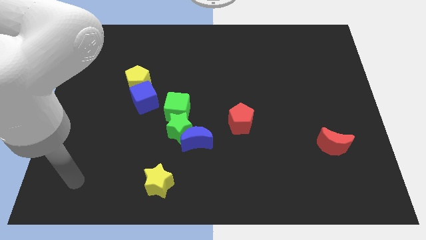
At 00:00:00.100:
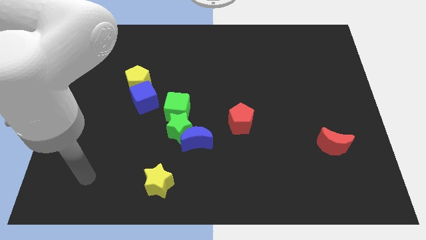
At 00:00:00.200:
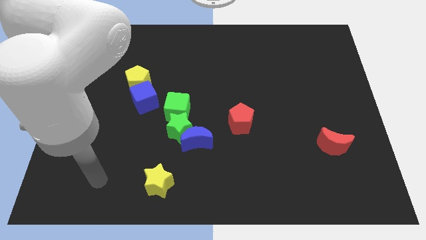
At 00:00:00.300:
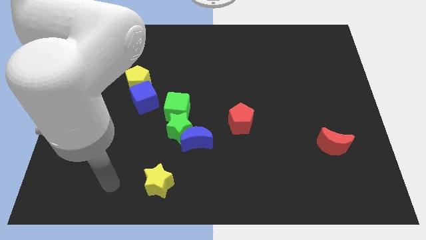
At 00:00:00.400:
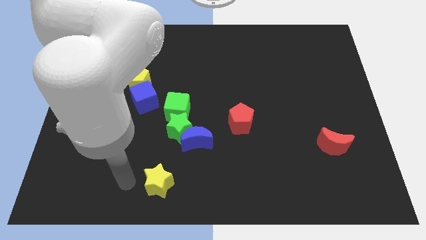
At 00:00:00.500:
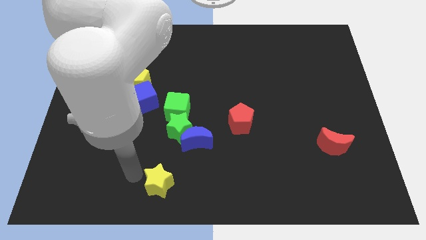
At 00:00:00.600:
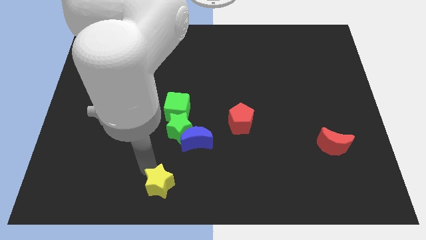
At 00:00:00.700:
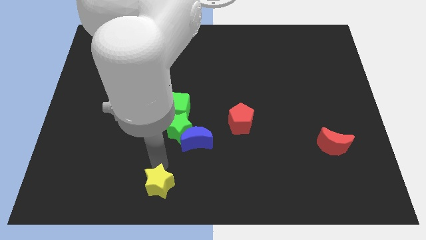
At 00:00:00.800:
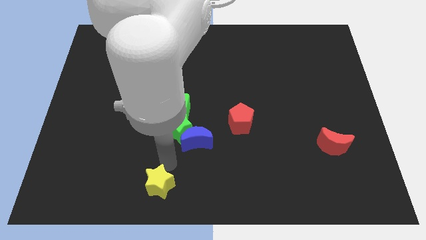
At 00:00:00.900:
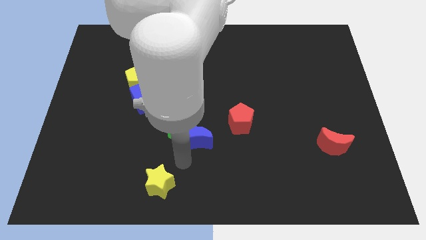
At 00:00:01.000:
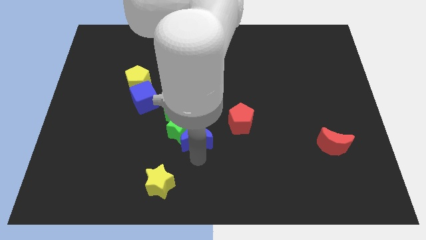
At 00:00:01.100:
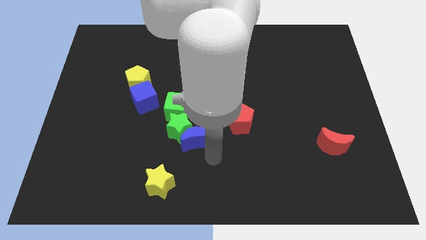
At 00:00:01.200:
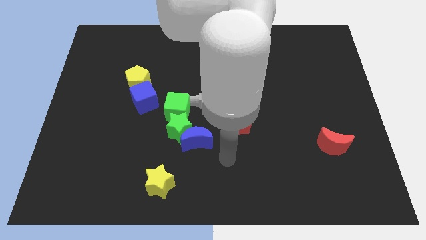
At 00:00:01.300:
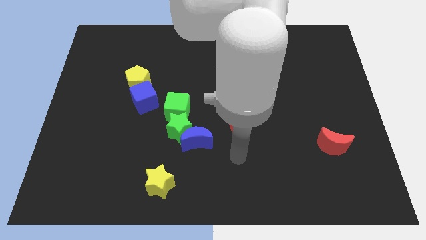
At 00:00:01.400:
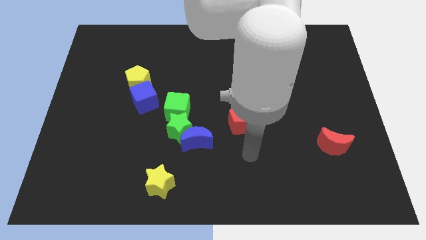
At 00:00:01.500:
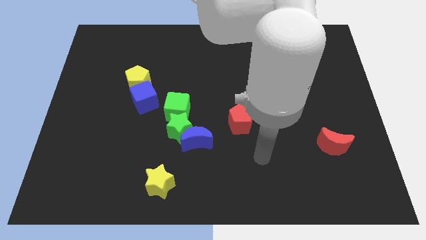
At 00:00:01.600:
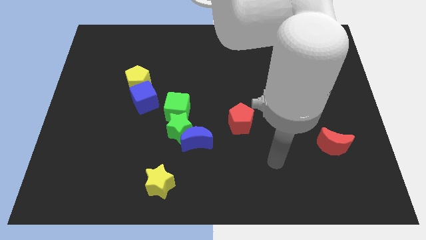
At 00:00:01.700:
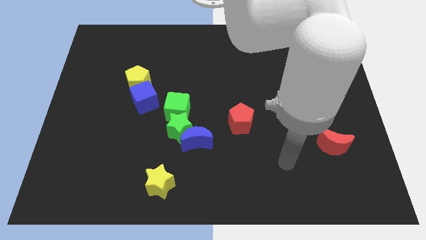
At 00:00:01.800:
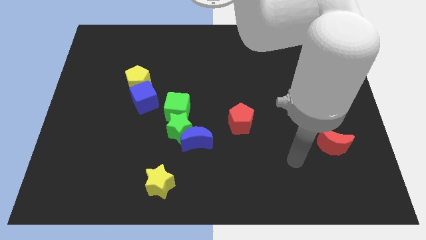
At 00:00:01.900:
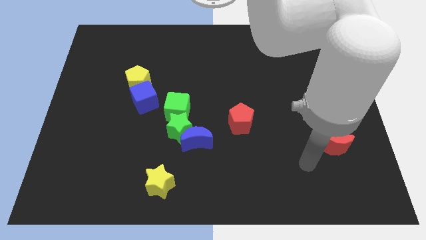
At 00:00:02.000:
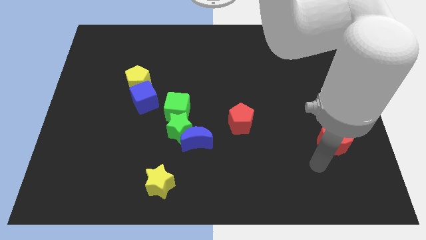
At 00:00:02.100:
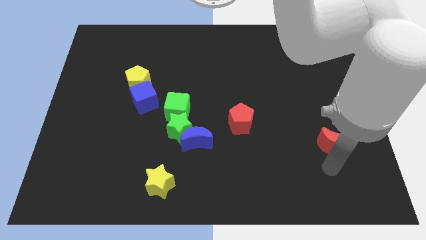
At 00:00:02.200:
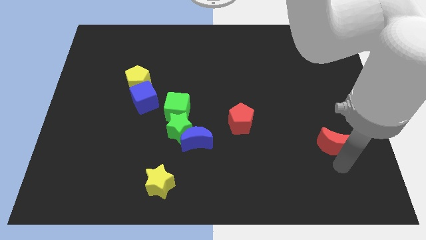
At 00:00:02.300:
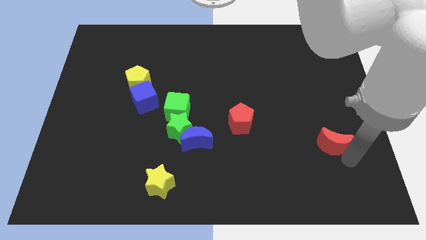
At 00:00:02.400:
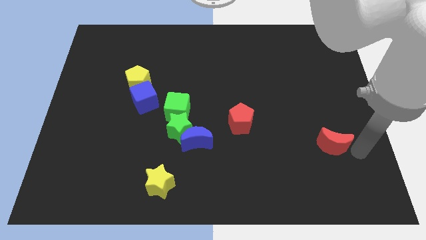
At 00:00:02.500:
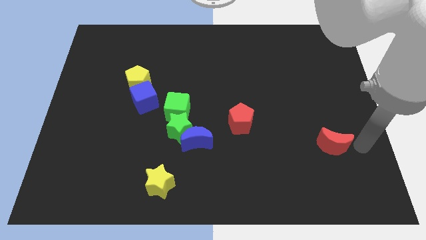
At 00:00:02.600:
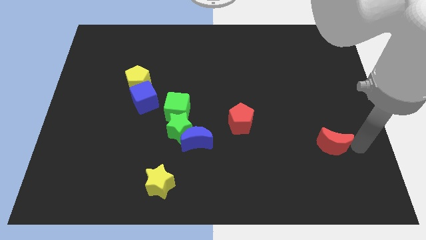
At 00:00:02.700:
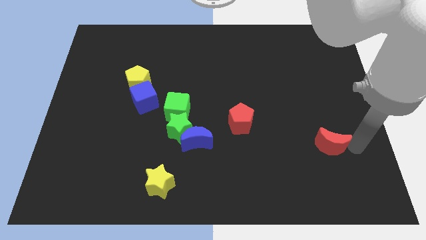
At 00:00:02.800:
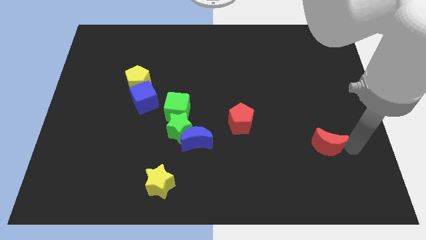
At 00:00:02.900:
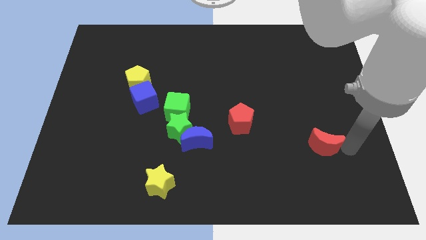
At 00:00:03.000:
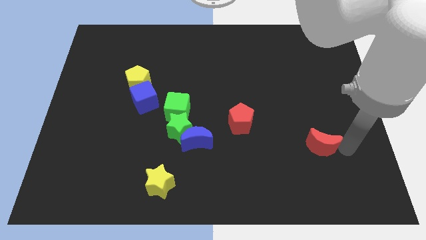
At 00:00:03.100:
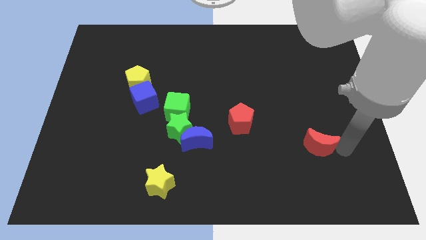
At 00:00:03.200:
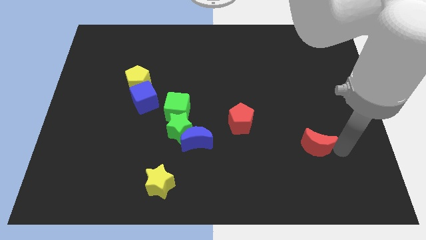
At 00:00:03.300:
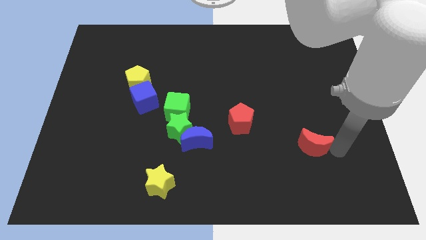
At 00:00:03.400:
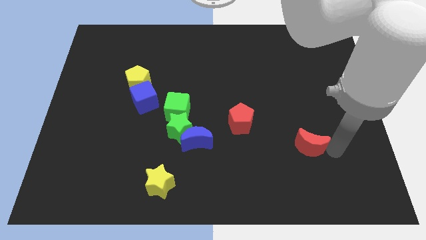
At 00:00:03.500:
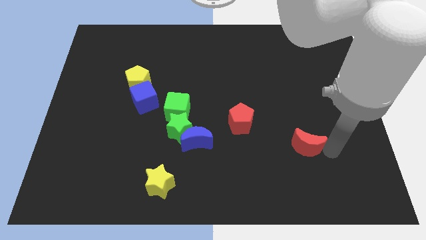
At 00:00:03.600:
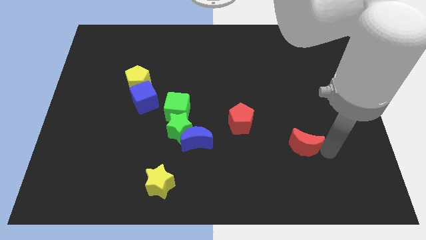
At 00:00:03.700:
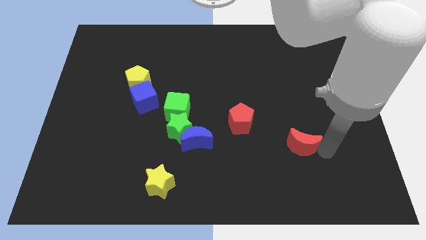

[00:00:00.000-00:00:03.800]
slightly push the red moon to the left

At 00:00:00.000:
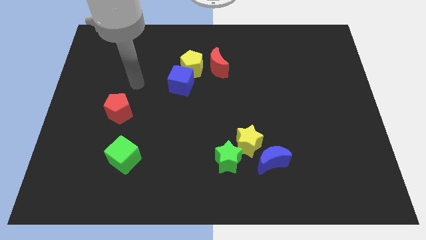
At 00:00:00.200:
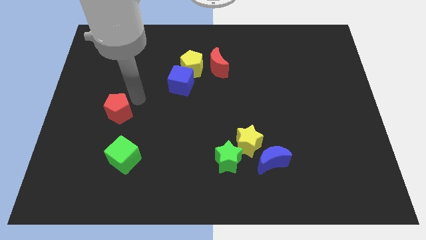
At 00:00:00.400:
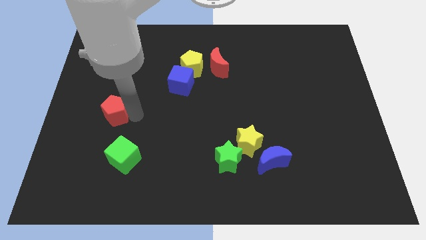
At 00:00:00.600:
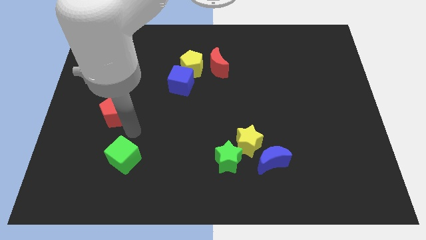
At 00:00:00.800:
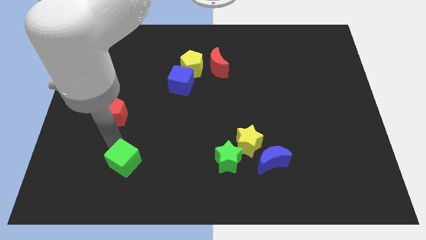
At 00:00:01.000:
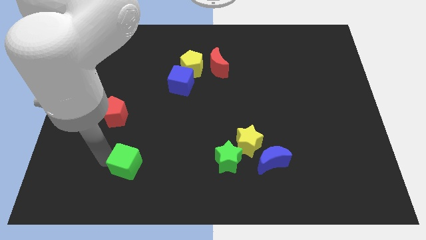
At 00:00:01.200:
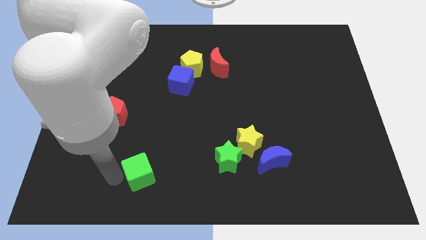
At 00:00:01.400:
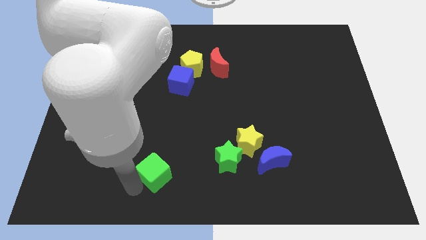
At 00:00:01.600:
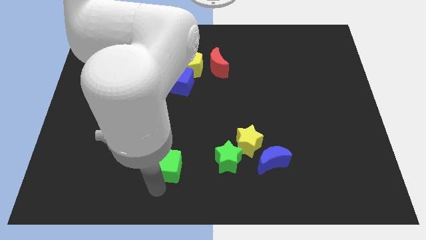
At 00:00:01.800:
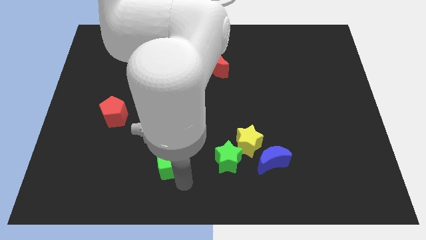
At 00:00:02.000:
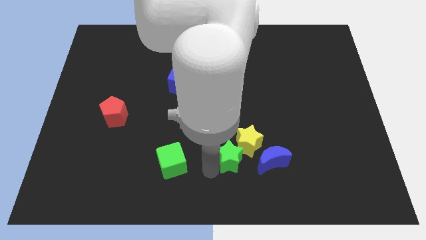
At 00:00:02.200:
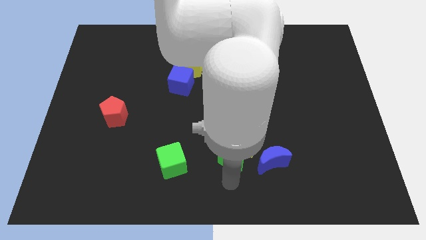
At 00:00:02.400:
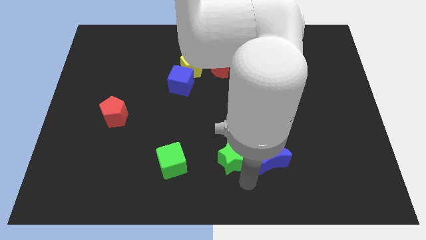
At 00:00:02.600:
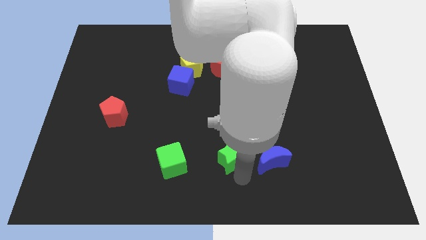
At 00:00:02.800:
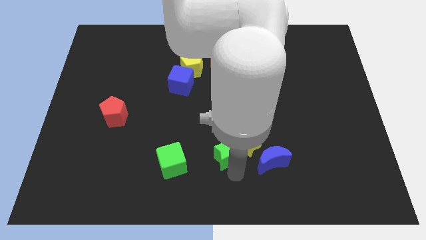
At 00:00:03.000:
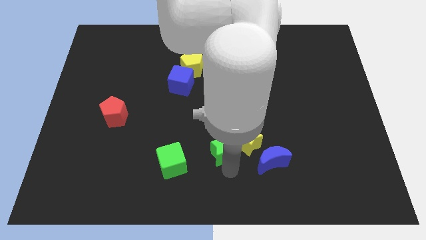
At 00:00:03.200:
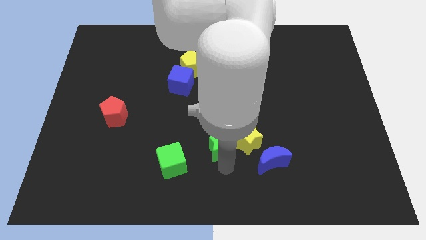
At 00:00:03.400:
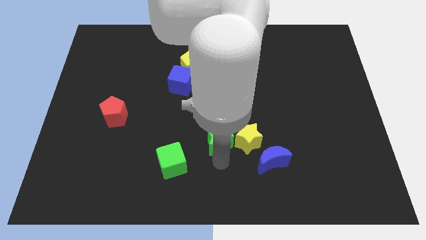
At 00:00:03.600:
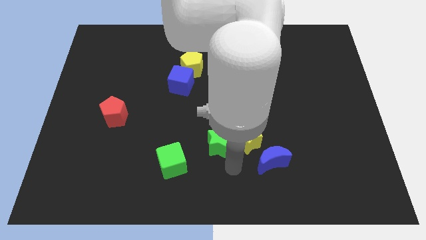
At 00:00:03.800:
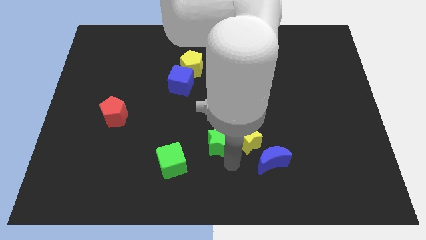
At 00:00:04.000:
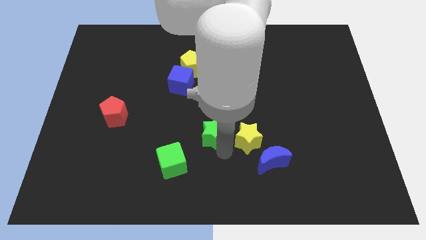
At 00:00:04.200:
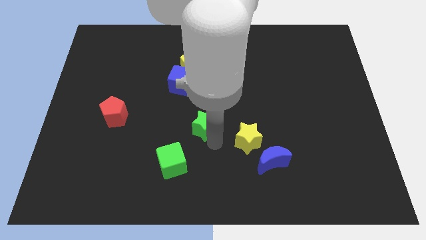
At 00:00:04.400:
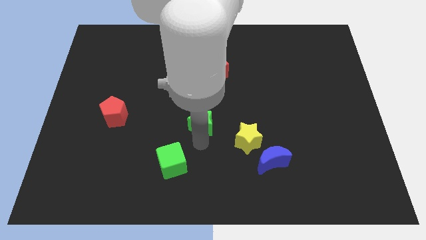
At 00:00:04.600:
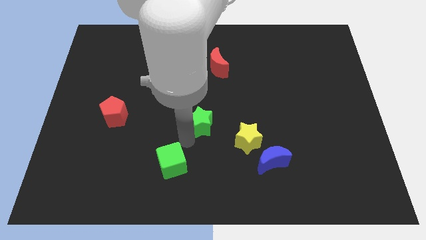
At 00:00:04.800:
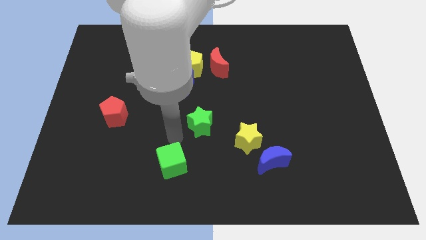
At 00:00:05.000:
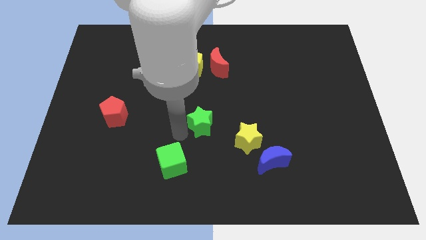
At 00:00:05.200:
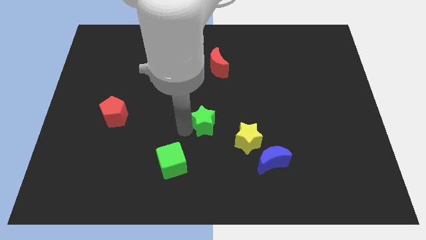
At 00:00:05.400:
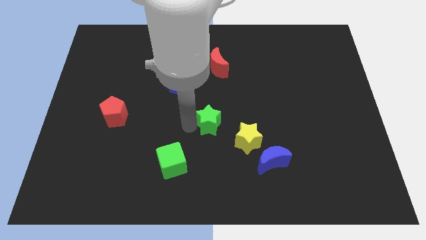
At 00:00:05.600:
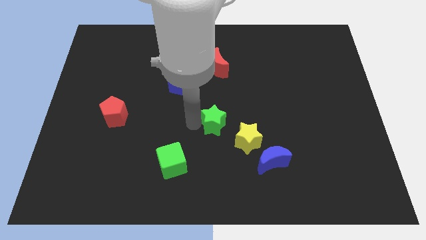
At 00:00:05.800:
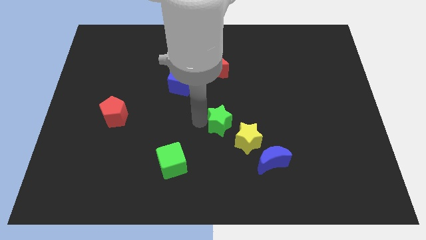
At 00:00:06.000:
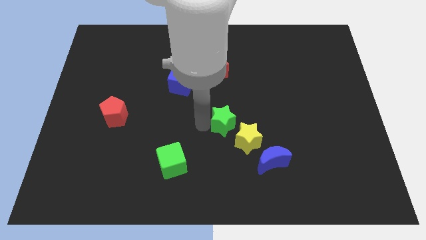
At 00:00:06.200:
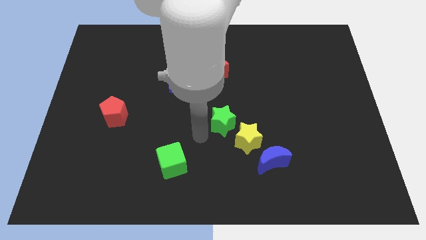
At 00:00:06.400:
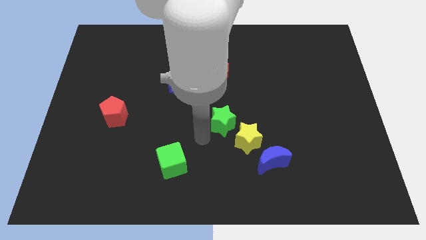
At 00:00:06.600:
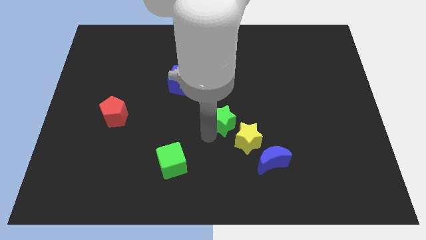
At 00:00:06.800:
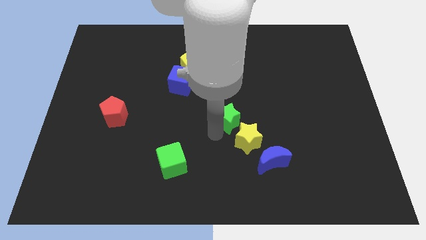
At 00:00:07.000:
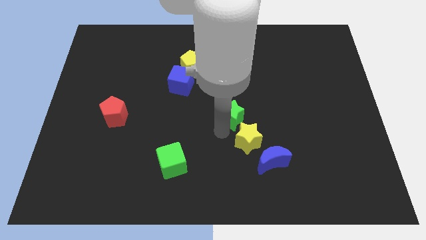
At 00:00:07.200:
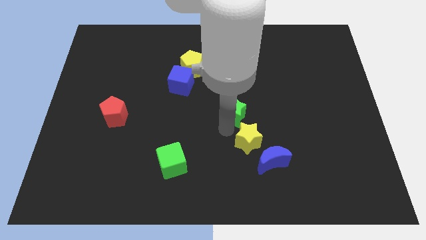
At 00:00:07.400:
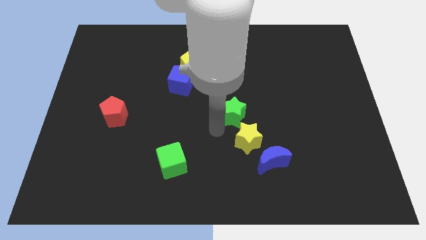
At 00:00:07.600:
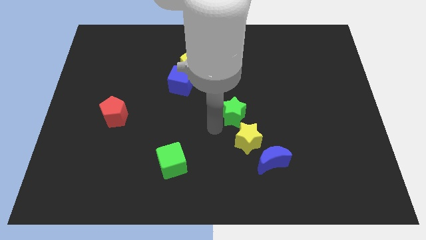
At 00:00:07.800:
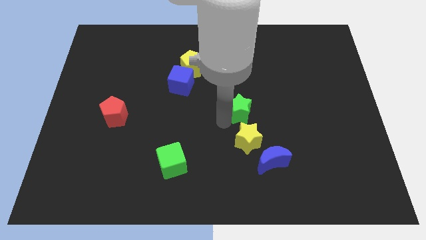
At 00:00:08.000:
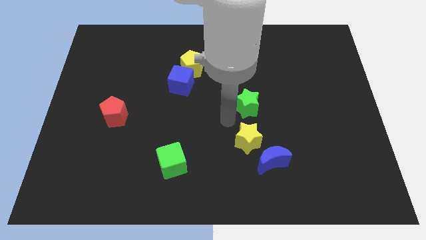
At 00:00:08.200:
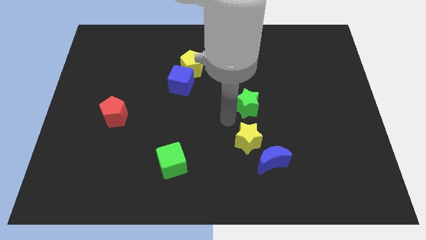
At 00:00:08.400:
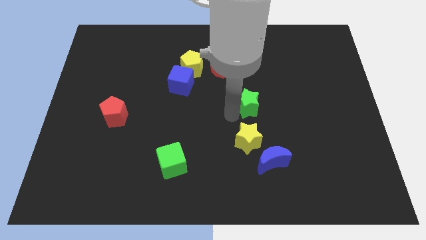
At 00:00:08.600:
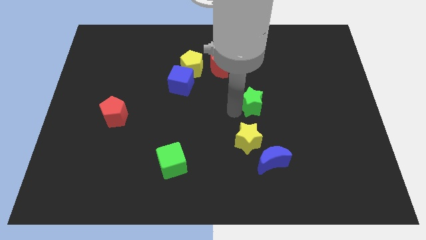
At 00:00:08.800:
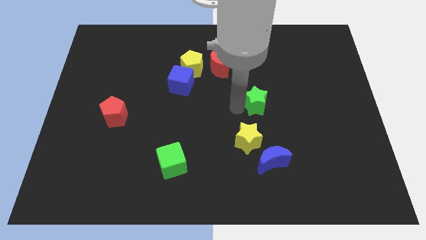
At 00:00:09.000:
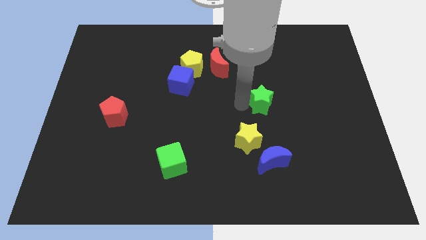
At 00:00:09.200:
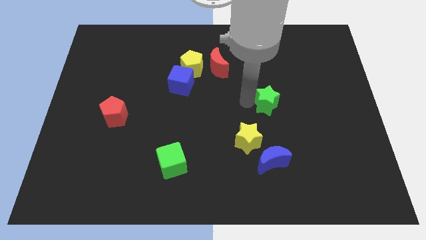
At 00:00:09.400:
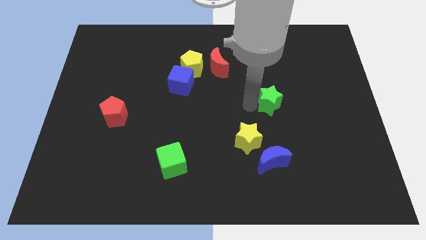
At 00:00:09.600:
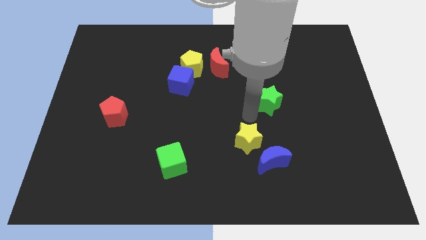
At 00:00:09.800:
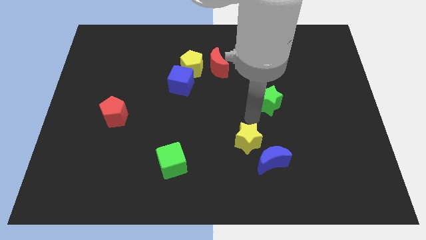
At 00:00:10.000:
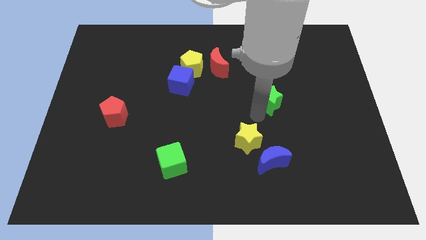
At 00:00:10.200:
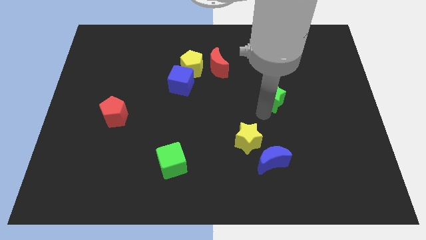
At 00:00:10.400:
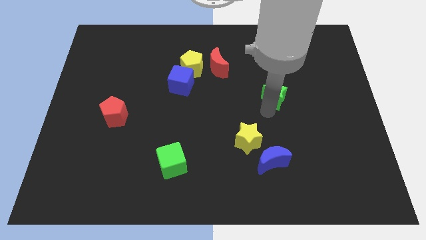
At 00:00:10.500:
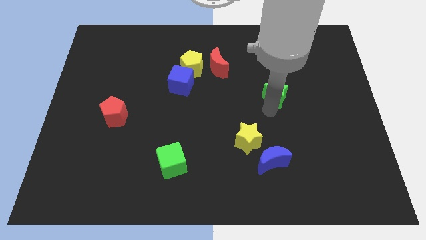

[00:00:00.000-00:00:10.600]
move the green star up and to the right
